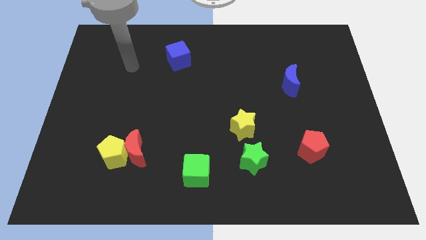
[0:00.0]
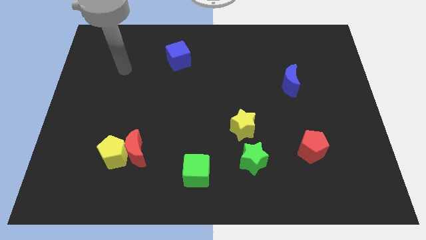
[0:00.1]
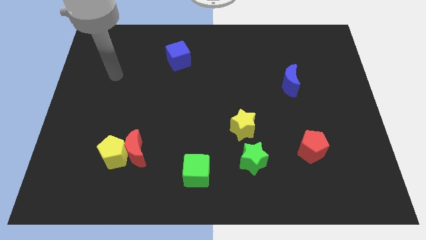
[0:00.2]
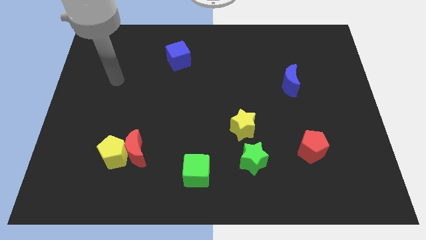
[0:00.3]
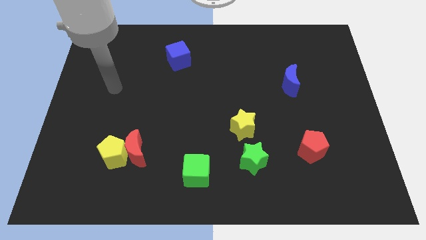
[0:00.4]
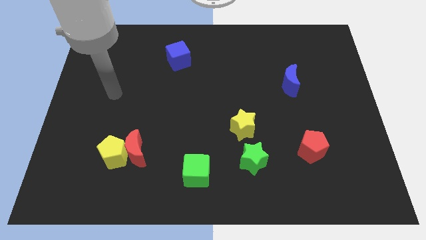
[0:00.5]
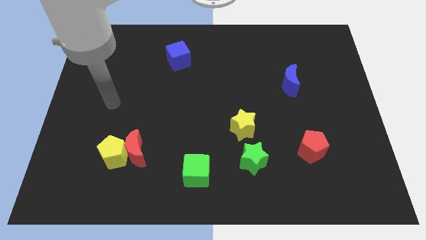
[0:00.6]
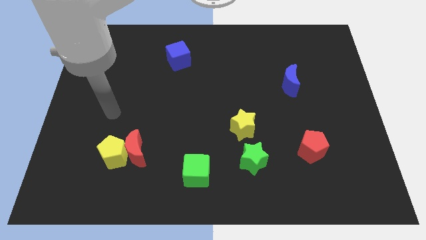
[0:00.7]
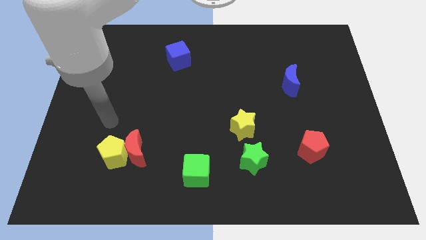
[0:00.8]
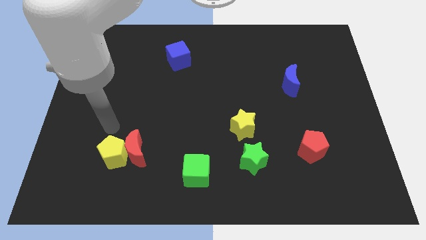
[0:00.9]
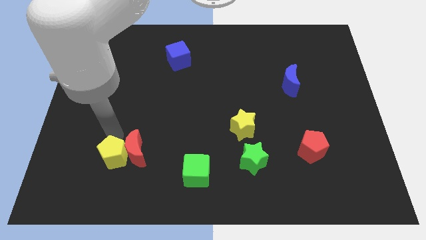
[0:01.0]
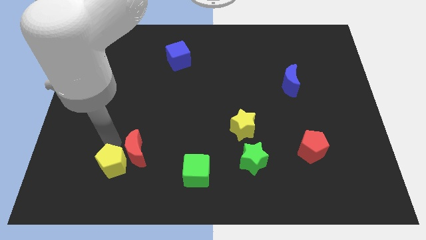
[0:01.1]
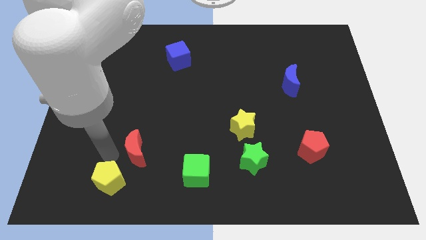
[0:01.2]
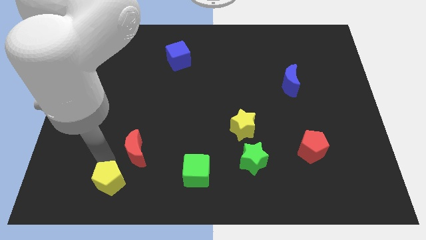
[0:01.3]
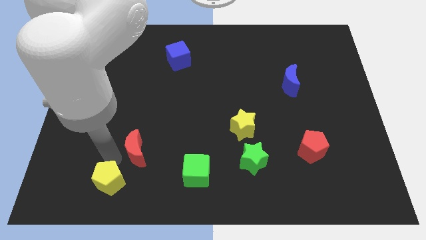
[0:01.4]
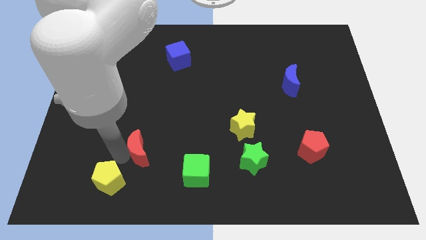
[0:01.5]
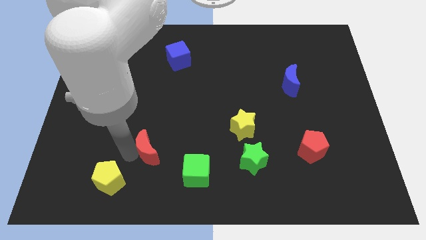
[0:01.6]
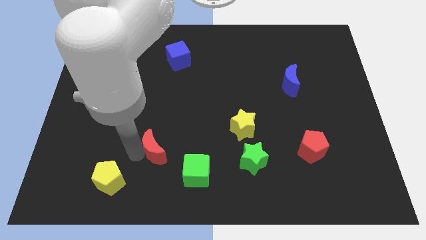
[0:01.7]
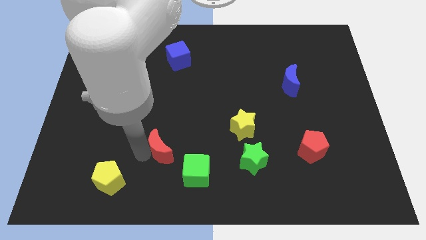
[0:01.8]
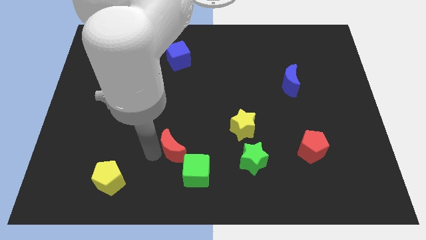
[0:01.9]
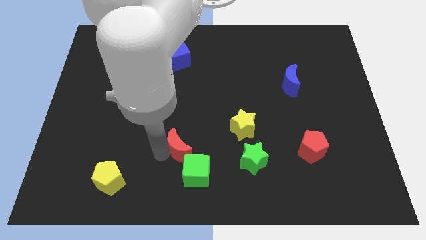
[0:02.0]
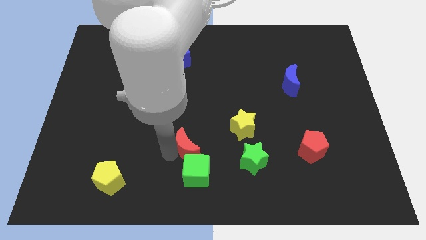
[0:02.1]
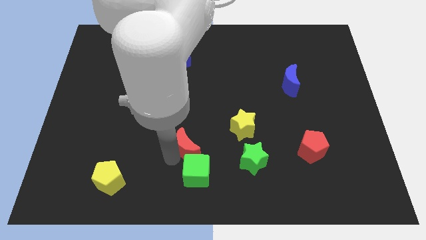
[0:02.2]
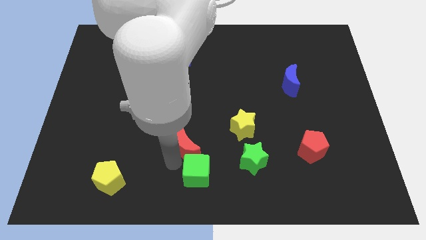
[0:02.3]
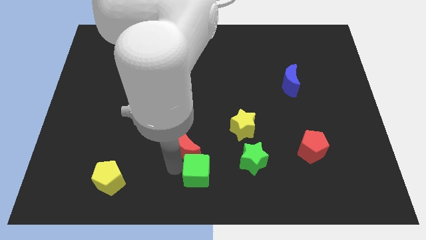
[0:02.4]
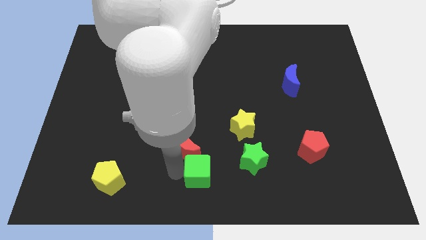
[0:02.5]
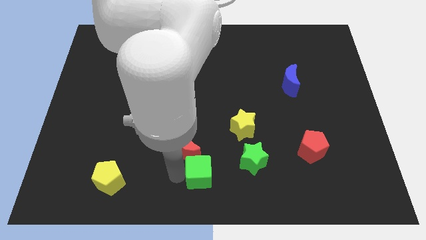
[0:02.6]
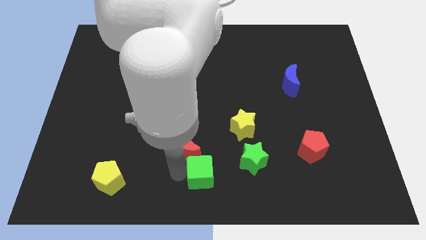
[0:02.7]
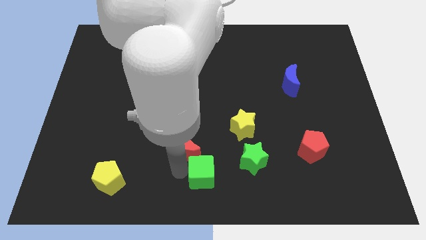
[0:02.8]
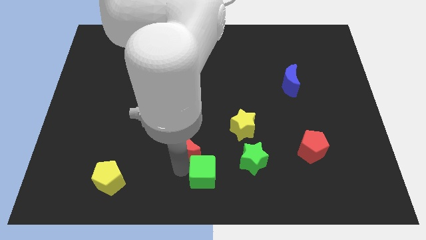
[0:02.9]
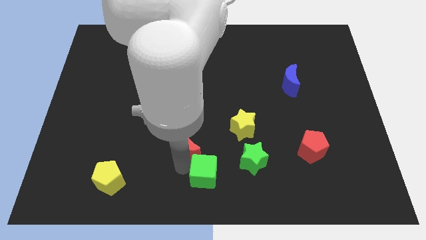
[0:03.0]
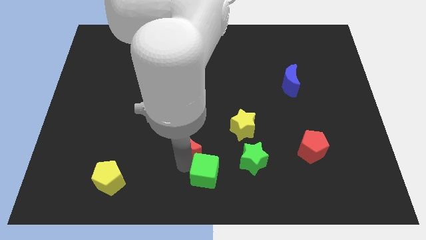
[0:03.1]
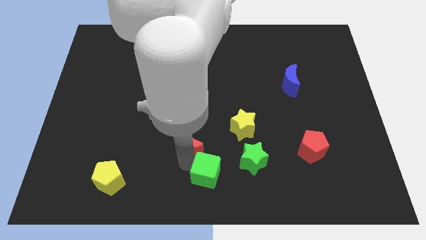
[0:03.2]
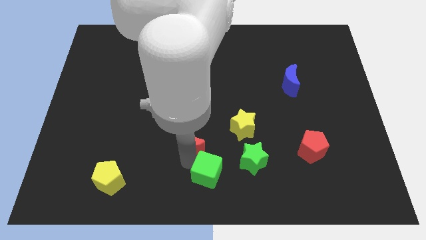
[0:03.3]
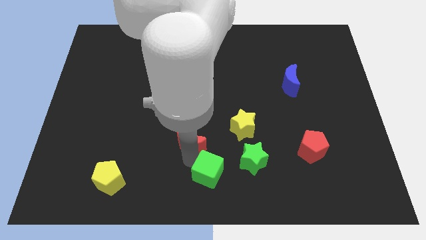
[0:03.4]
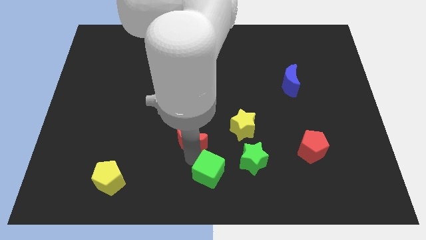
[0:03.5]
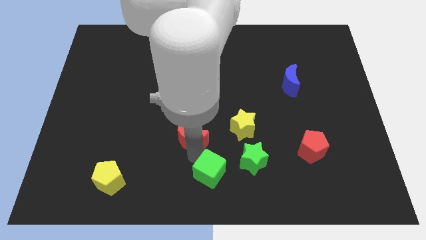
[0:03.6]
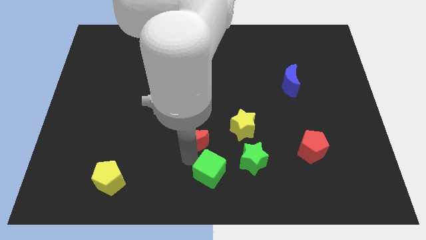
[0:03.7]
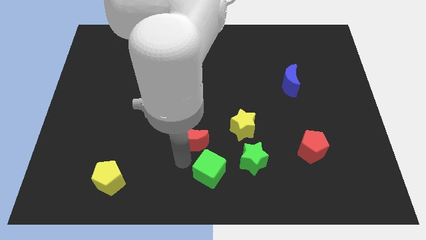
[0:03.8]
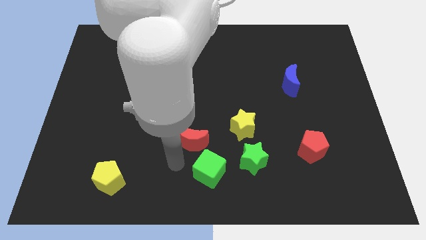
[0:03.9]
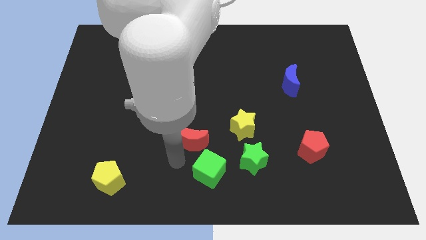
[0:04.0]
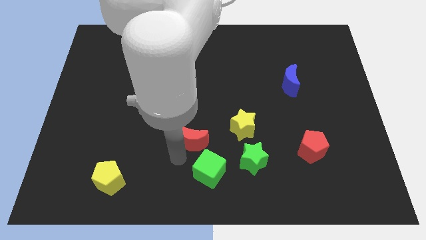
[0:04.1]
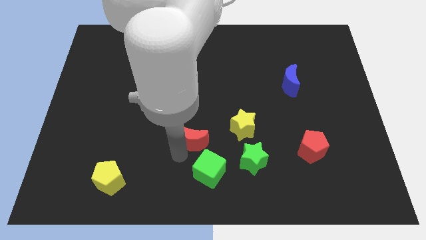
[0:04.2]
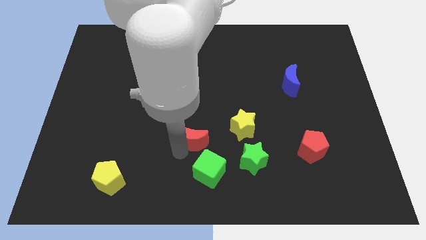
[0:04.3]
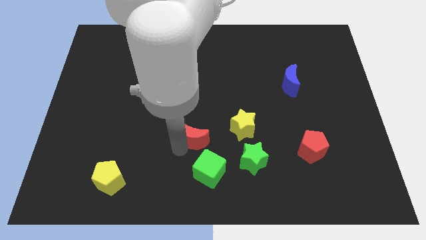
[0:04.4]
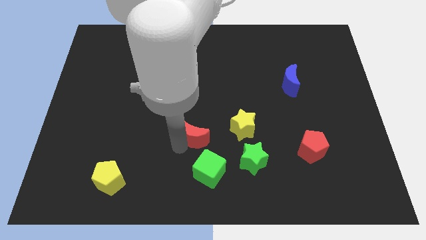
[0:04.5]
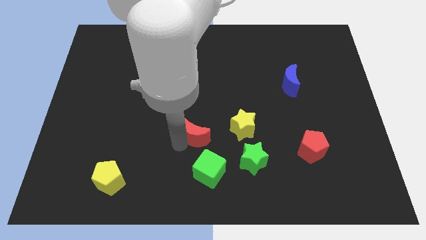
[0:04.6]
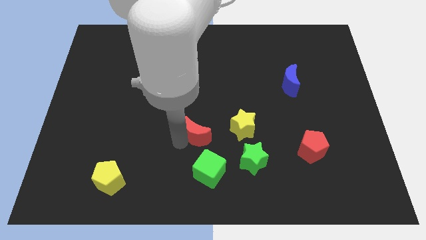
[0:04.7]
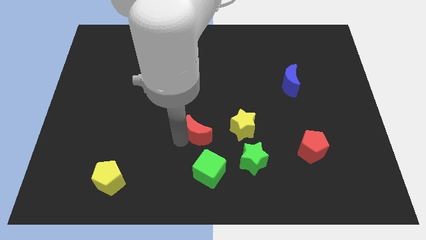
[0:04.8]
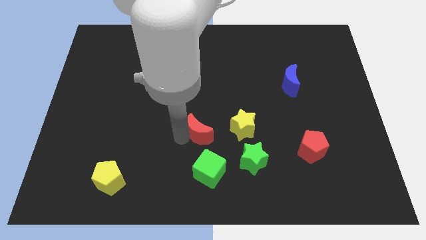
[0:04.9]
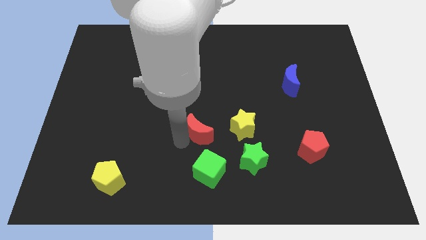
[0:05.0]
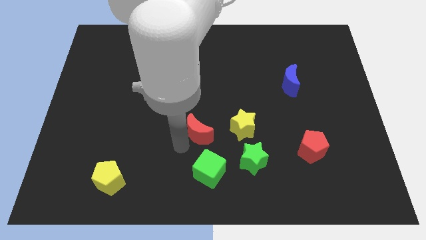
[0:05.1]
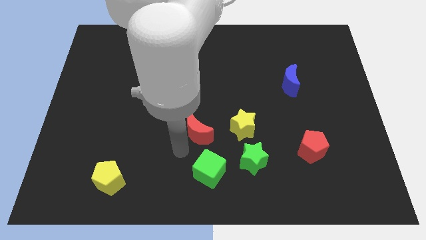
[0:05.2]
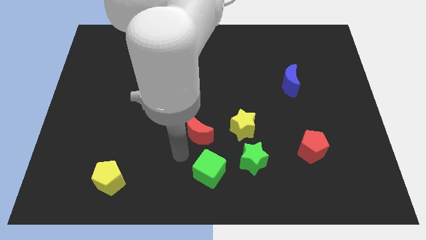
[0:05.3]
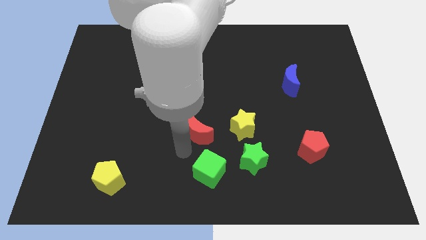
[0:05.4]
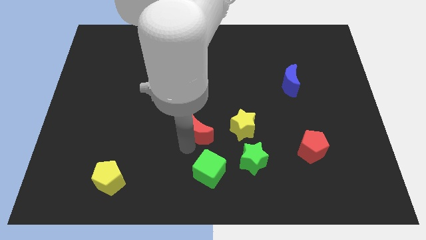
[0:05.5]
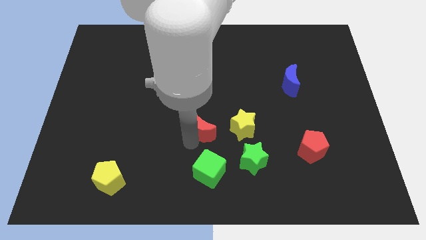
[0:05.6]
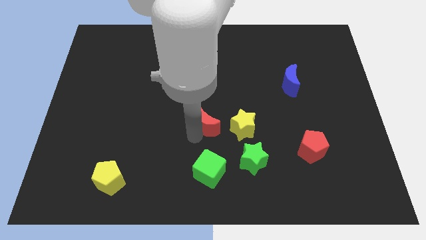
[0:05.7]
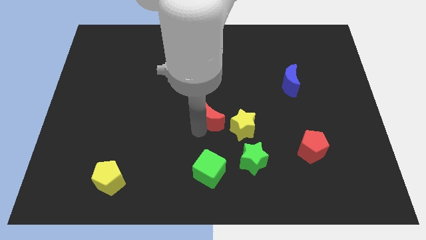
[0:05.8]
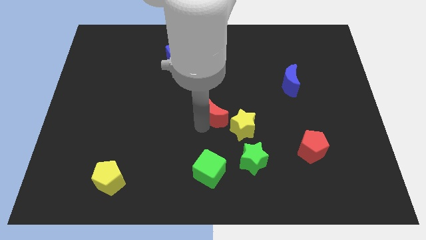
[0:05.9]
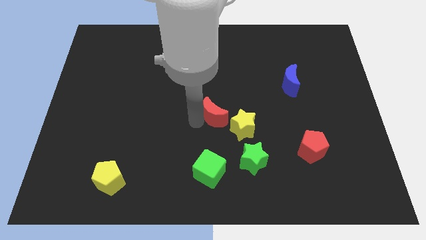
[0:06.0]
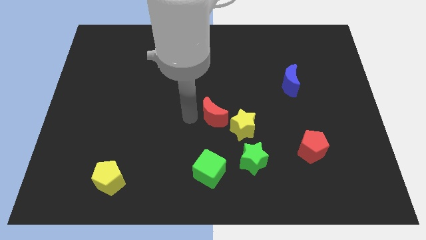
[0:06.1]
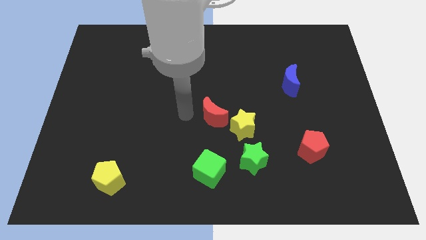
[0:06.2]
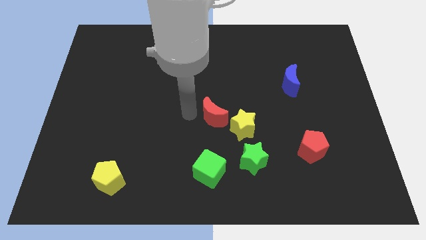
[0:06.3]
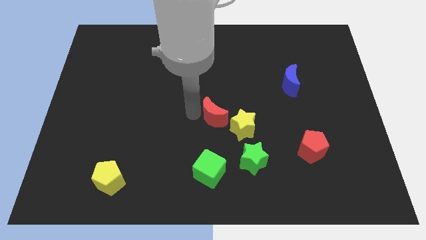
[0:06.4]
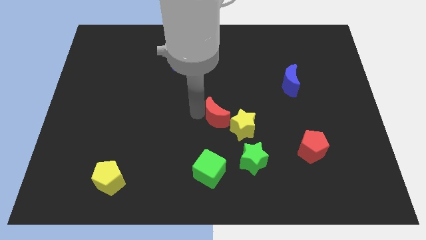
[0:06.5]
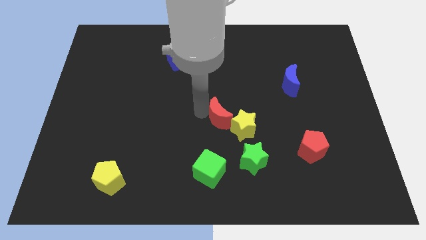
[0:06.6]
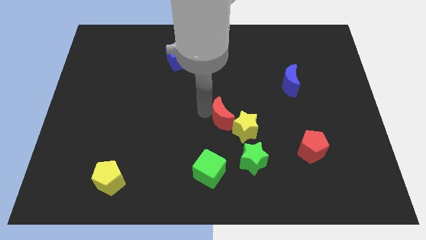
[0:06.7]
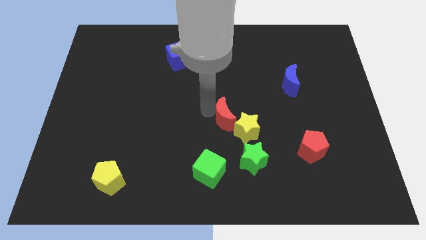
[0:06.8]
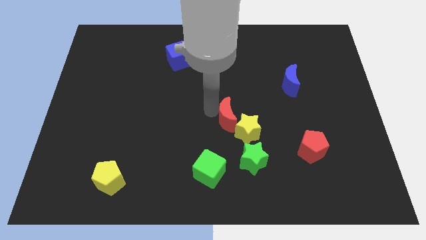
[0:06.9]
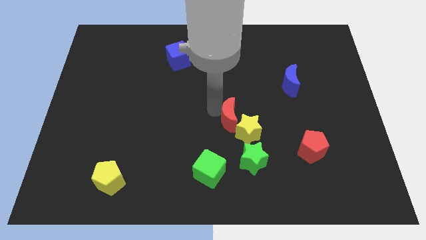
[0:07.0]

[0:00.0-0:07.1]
move the red moon to the top of the green star

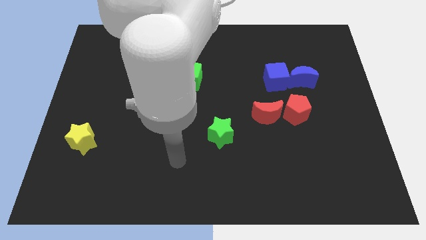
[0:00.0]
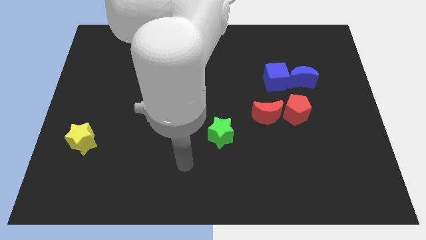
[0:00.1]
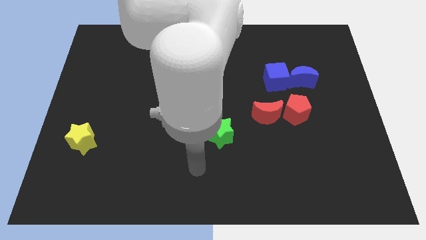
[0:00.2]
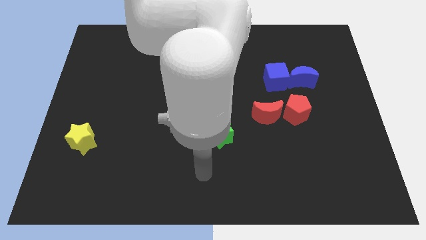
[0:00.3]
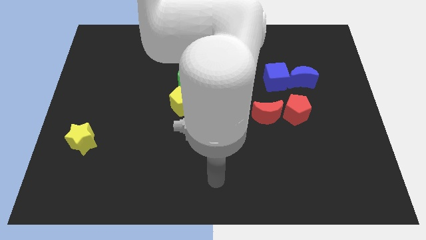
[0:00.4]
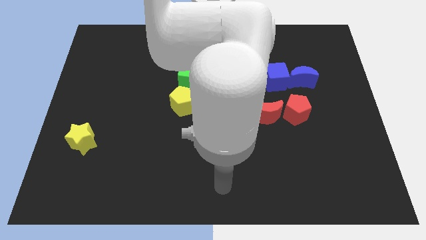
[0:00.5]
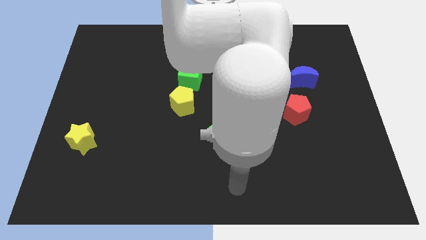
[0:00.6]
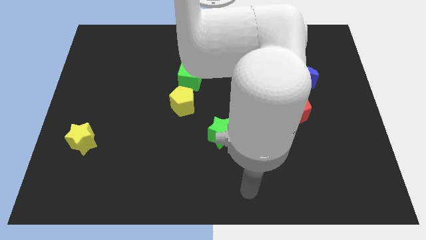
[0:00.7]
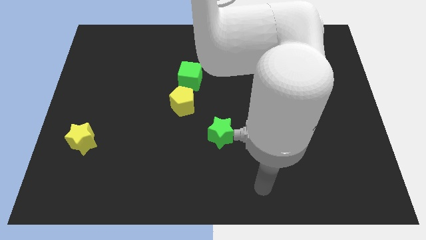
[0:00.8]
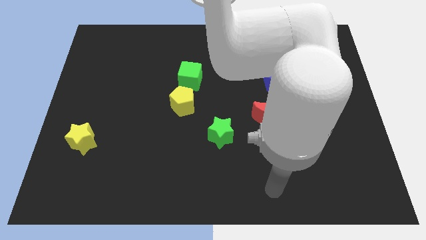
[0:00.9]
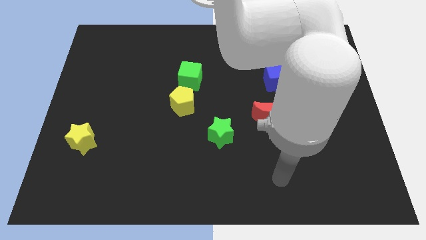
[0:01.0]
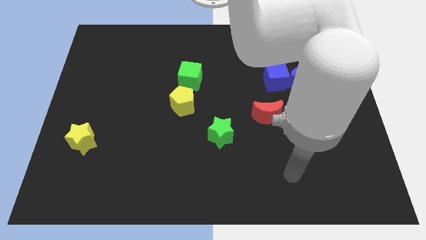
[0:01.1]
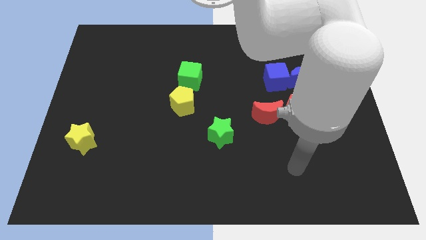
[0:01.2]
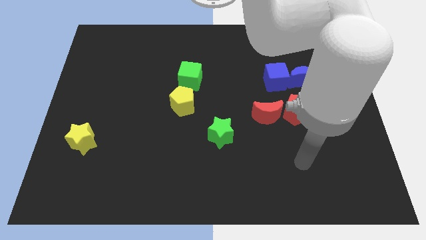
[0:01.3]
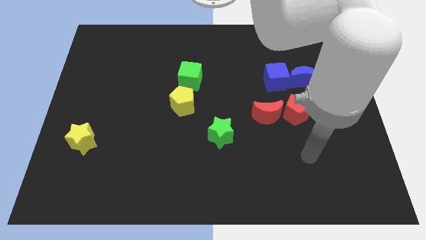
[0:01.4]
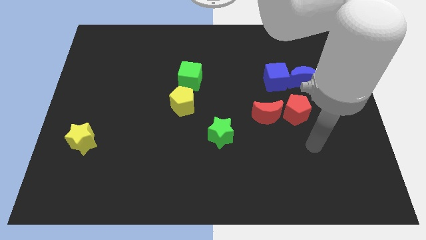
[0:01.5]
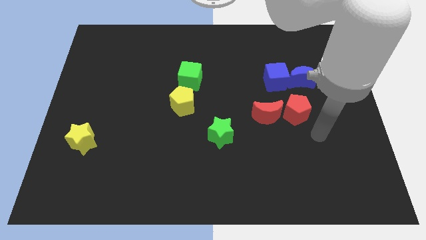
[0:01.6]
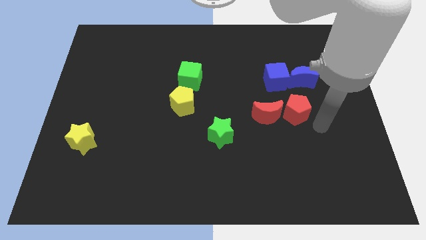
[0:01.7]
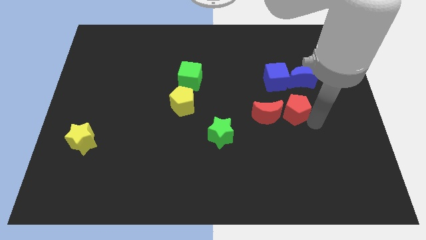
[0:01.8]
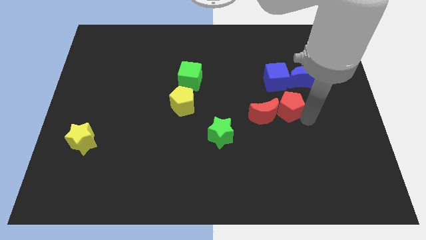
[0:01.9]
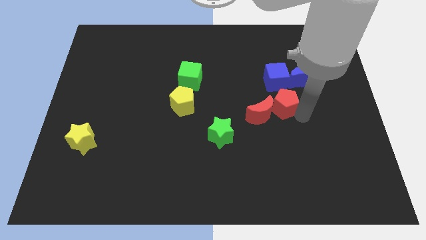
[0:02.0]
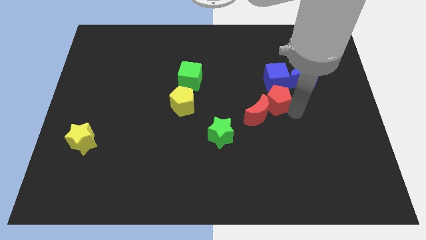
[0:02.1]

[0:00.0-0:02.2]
put the red pentagon to the bottom left side of the blue cube
